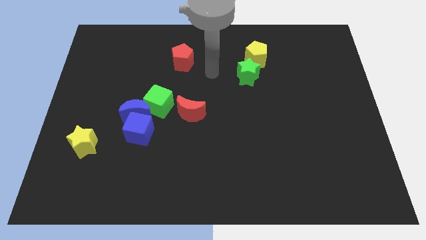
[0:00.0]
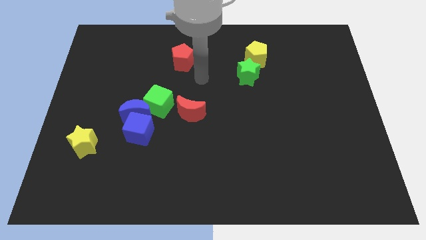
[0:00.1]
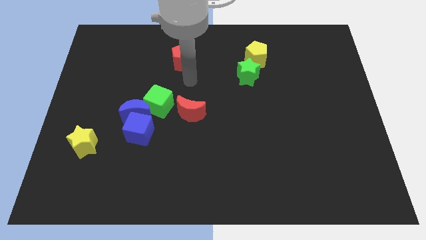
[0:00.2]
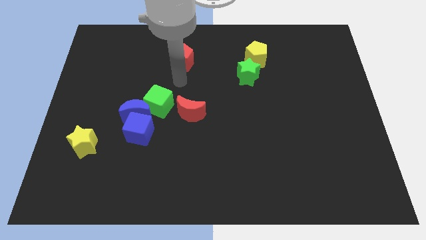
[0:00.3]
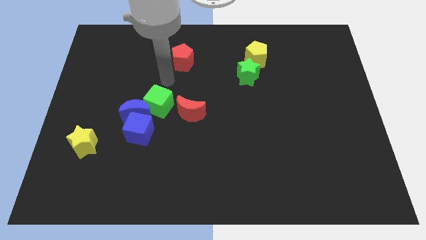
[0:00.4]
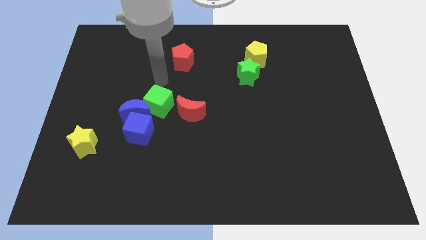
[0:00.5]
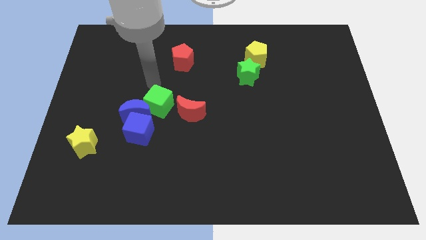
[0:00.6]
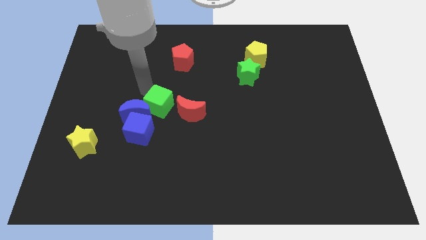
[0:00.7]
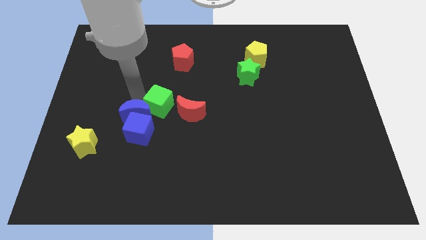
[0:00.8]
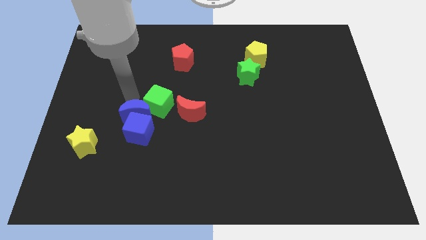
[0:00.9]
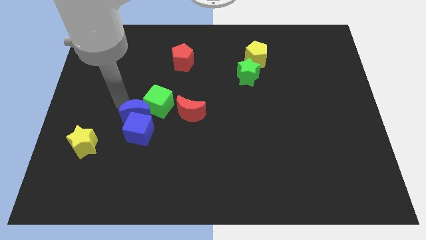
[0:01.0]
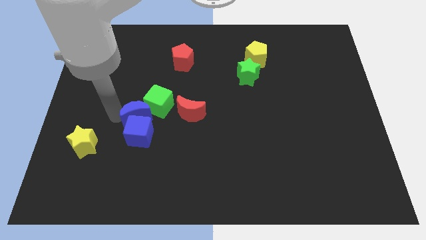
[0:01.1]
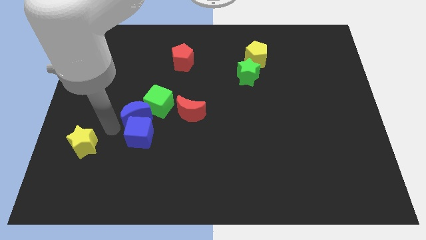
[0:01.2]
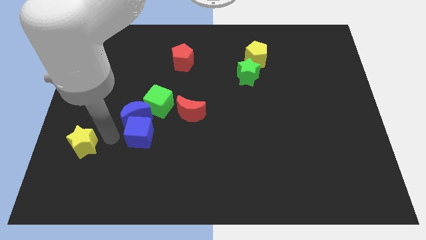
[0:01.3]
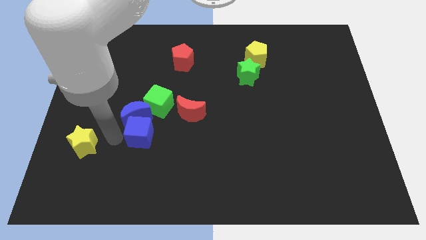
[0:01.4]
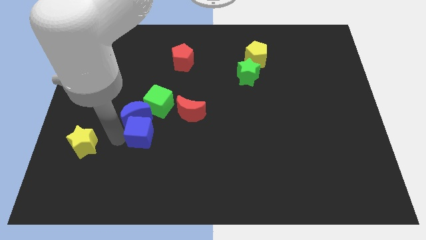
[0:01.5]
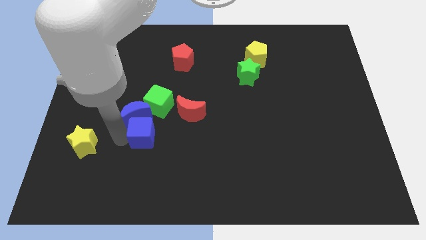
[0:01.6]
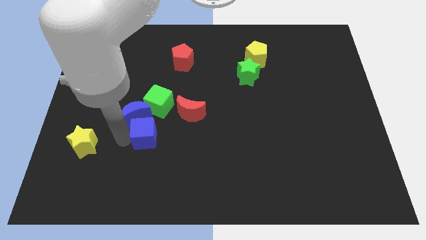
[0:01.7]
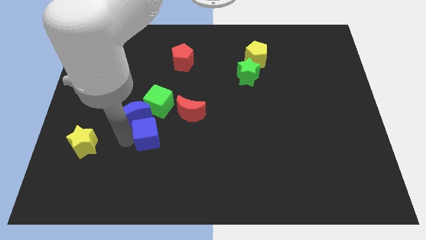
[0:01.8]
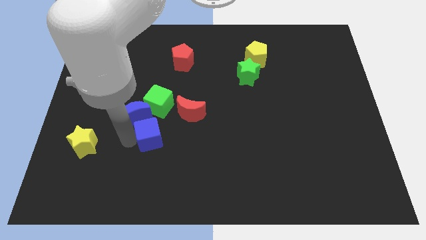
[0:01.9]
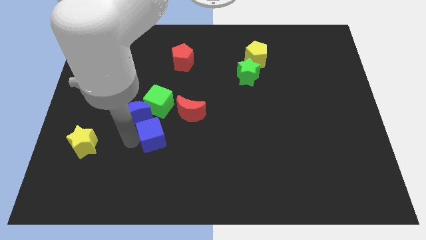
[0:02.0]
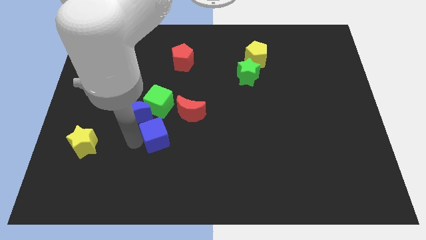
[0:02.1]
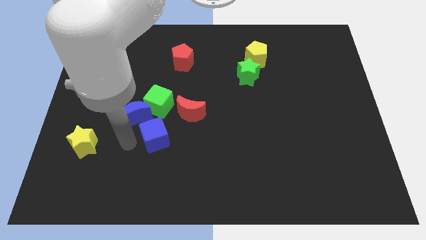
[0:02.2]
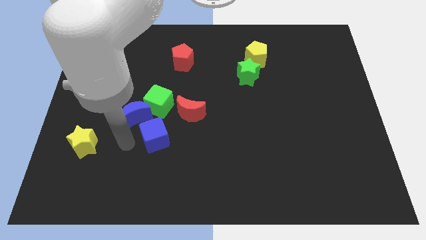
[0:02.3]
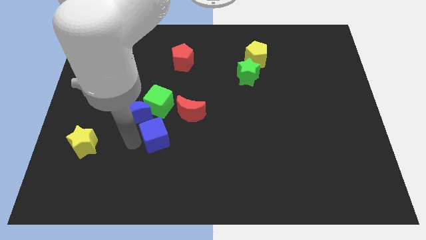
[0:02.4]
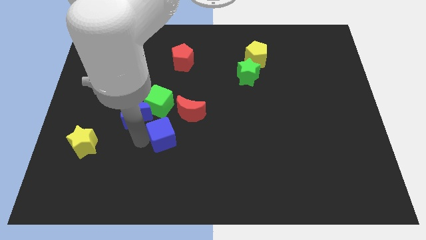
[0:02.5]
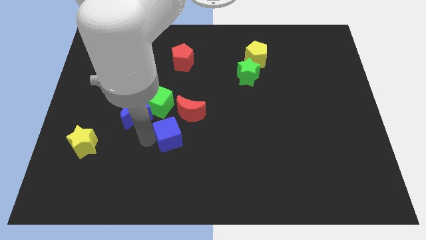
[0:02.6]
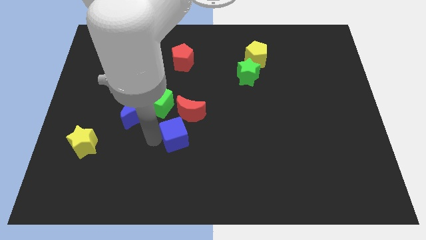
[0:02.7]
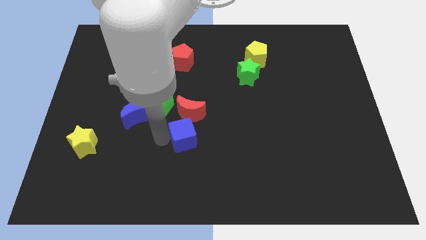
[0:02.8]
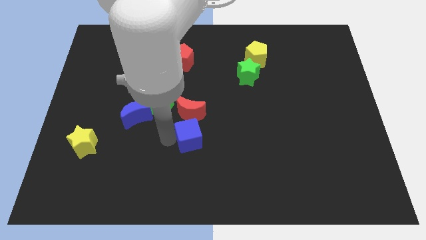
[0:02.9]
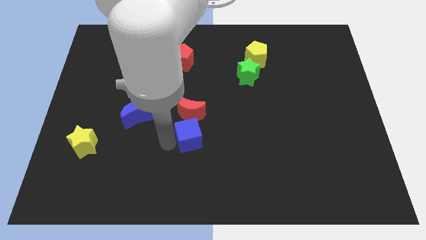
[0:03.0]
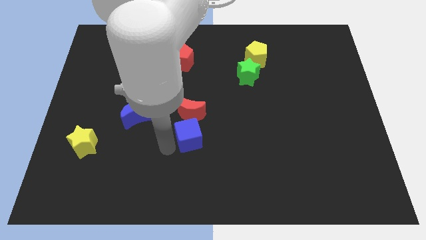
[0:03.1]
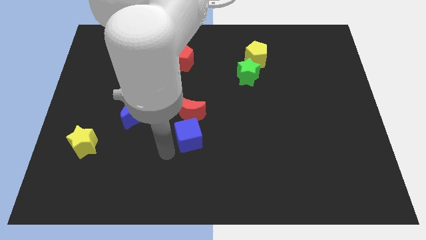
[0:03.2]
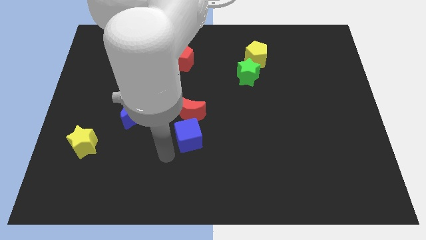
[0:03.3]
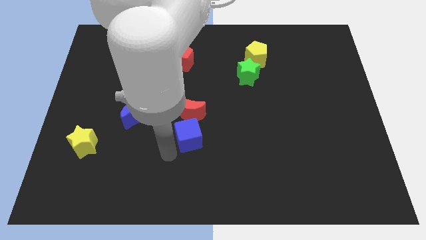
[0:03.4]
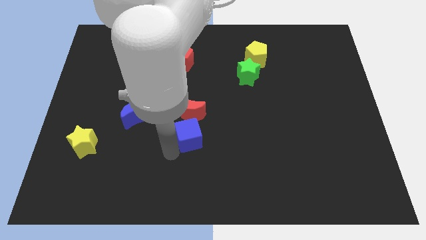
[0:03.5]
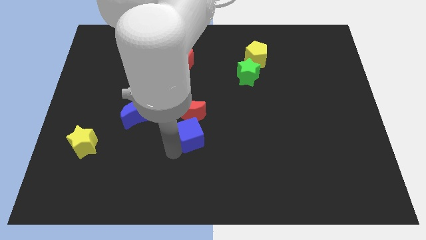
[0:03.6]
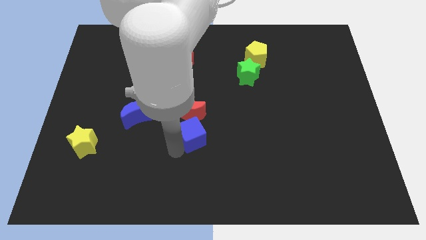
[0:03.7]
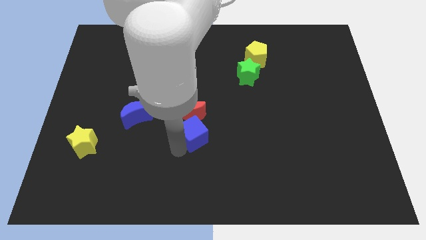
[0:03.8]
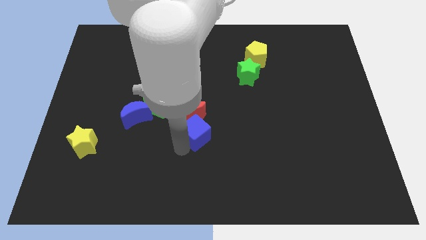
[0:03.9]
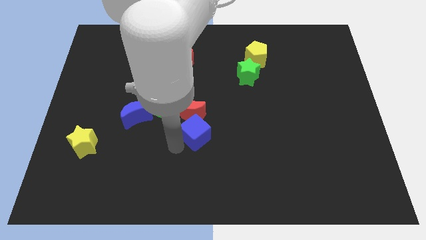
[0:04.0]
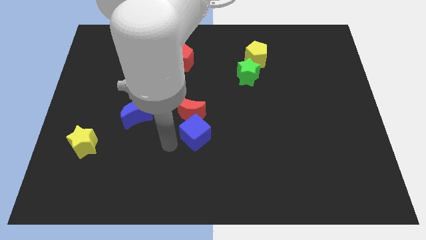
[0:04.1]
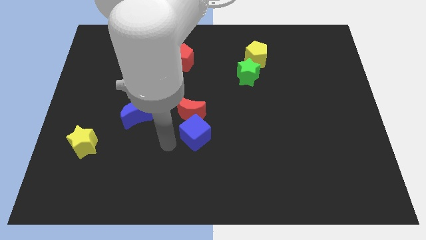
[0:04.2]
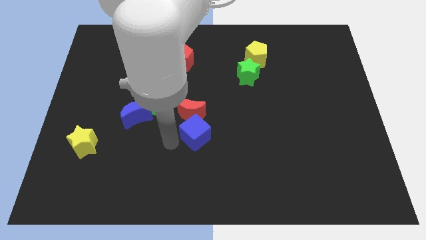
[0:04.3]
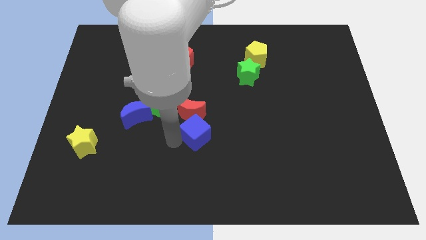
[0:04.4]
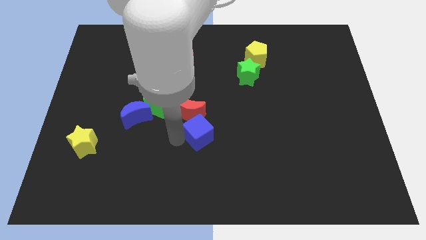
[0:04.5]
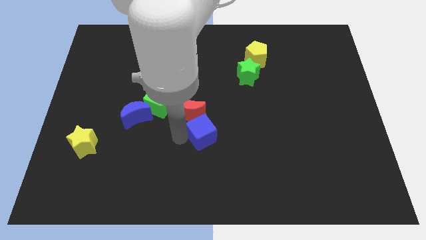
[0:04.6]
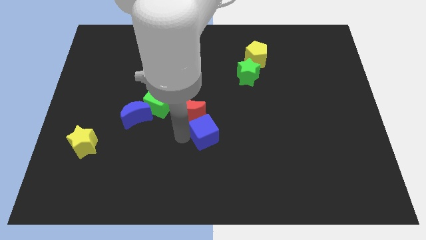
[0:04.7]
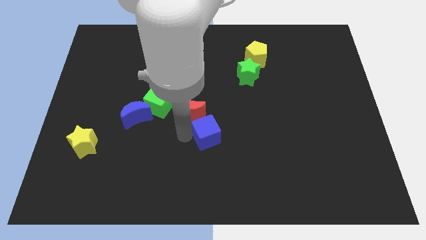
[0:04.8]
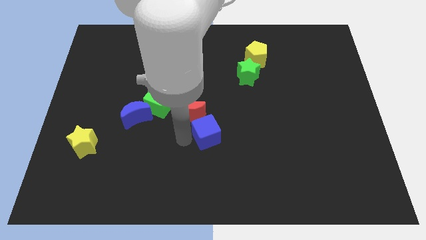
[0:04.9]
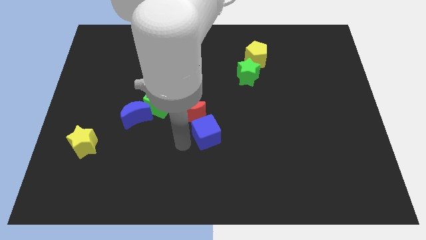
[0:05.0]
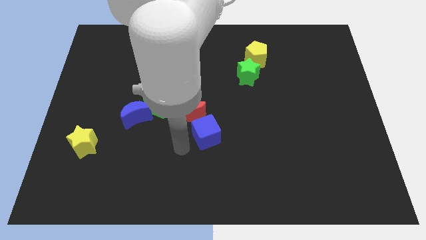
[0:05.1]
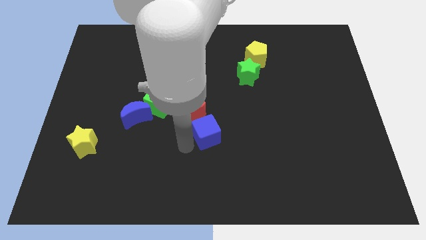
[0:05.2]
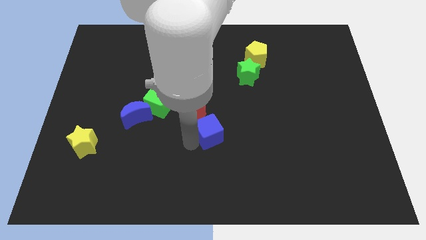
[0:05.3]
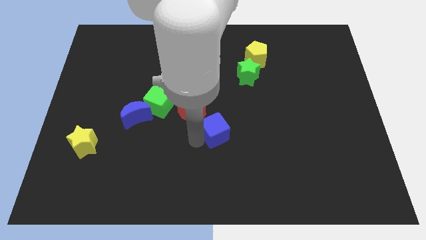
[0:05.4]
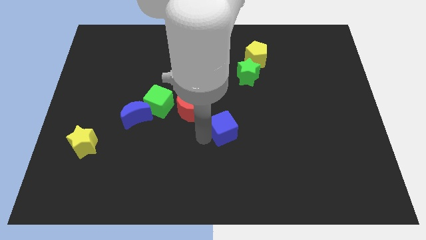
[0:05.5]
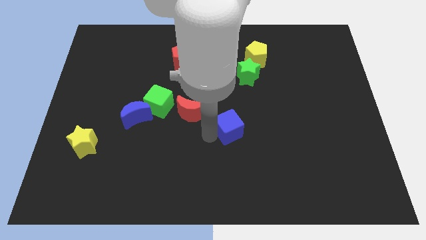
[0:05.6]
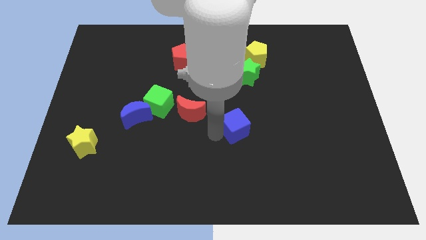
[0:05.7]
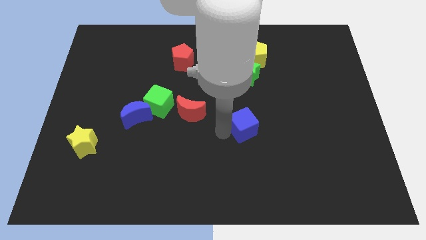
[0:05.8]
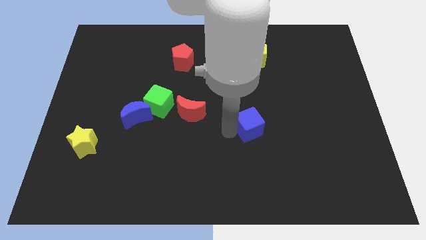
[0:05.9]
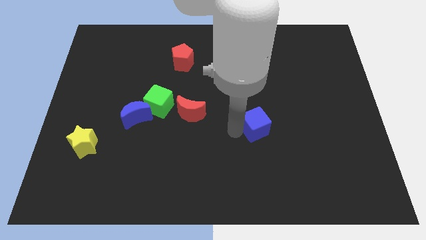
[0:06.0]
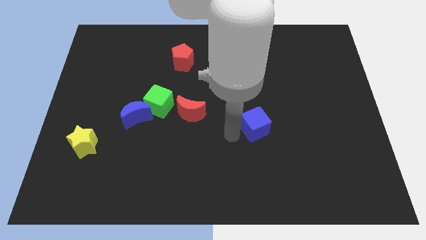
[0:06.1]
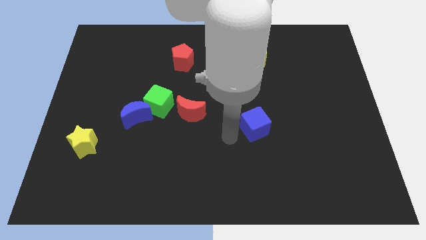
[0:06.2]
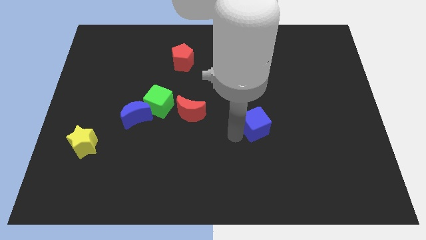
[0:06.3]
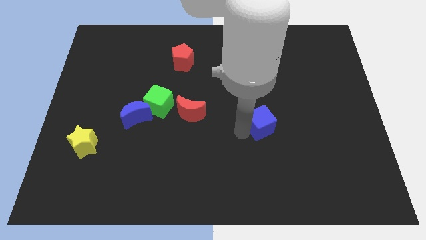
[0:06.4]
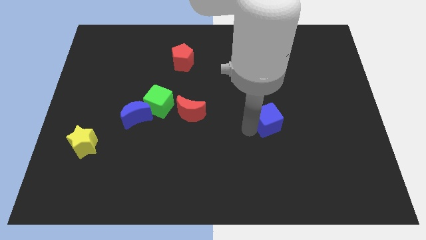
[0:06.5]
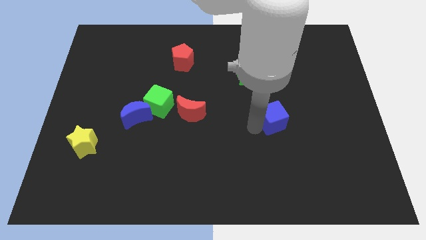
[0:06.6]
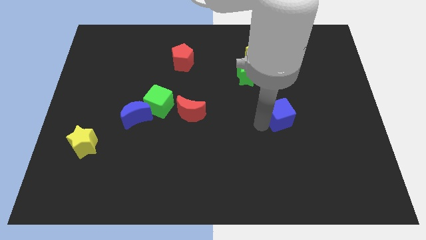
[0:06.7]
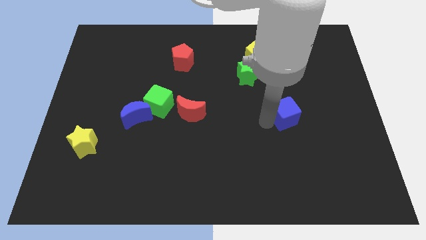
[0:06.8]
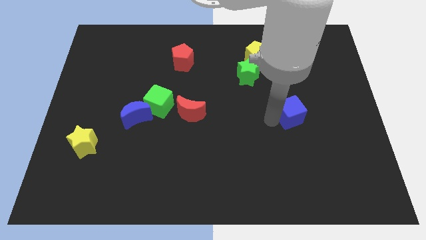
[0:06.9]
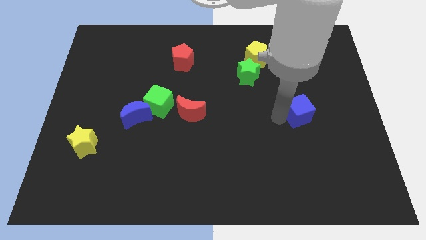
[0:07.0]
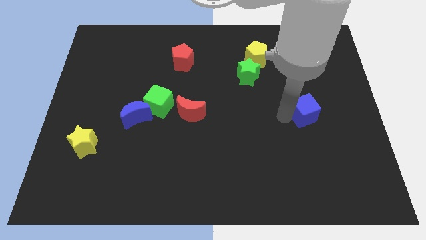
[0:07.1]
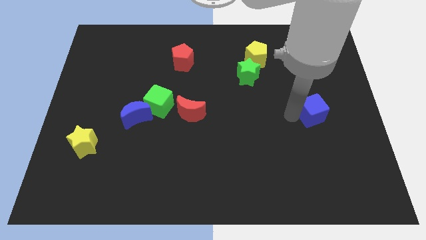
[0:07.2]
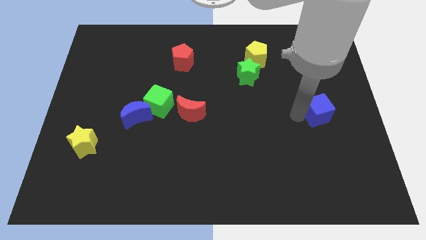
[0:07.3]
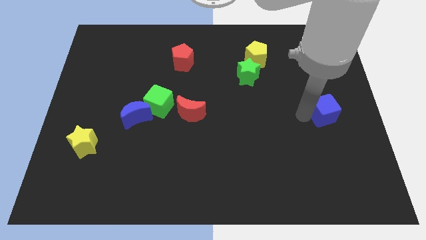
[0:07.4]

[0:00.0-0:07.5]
push the blue cube to the right side of the board
